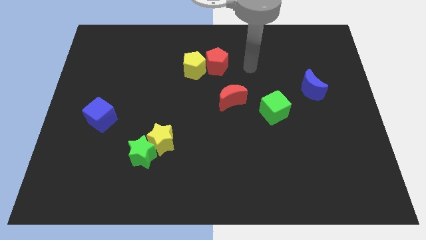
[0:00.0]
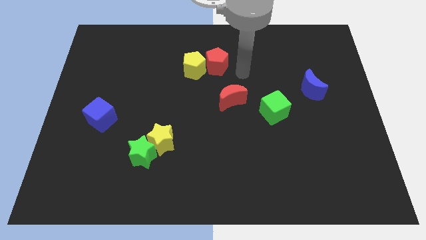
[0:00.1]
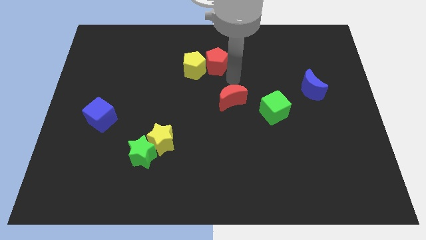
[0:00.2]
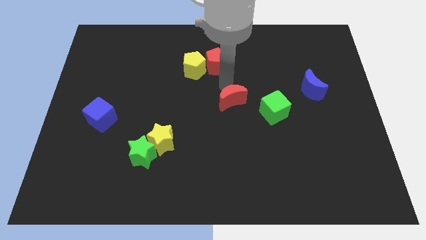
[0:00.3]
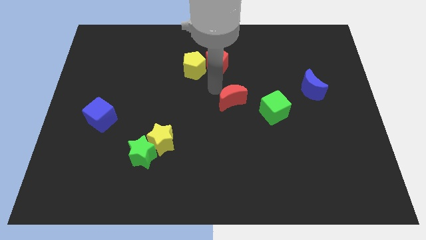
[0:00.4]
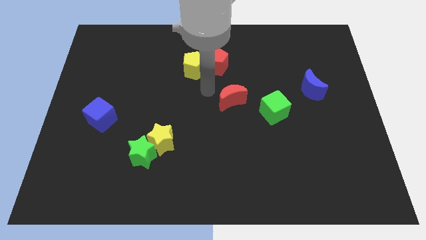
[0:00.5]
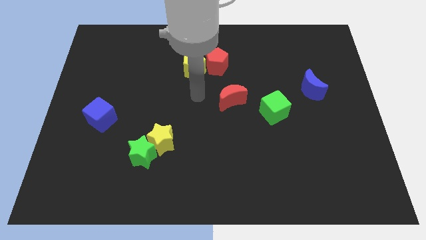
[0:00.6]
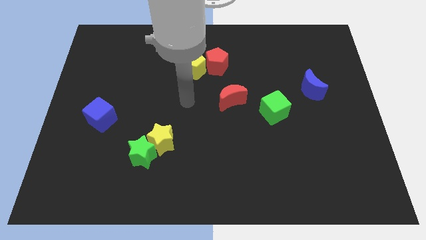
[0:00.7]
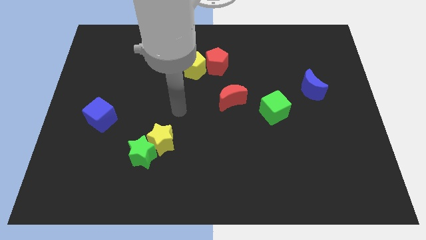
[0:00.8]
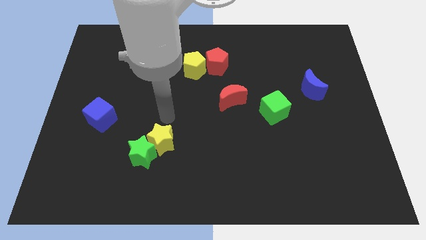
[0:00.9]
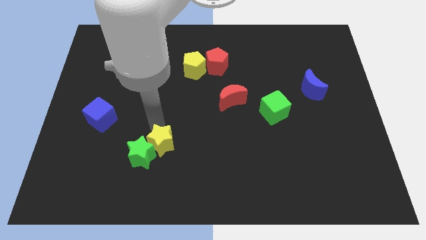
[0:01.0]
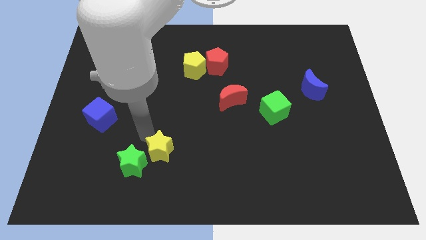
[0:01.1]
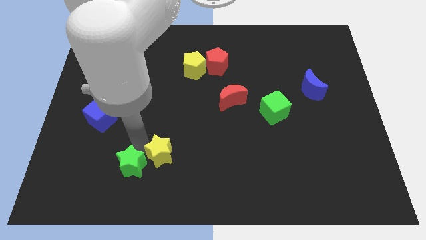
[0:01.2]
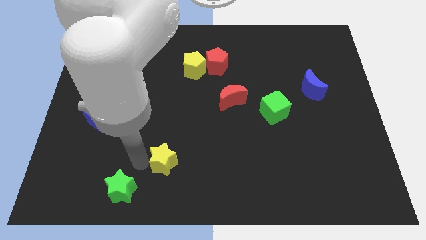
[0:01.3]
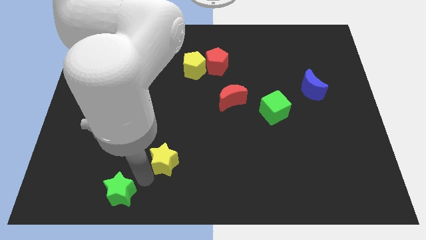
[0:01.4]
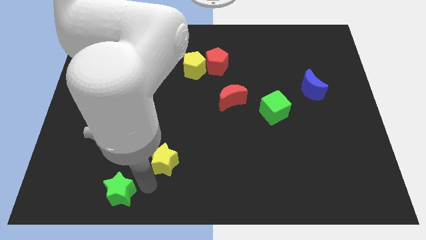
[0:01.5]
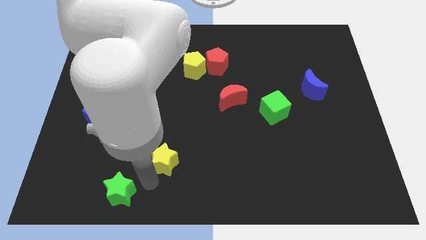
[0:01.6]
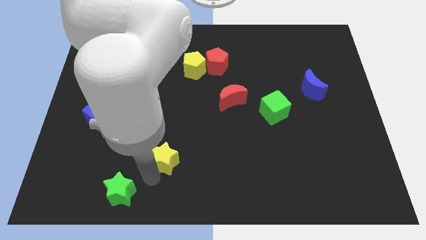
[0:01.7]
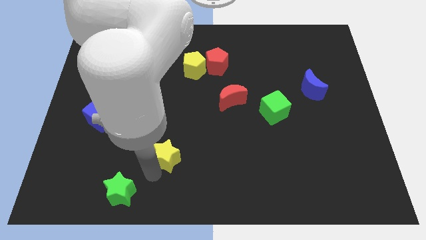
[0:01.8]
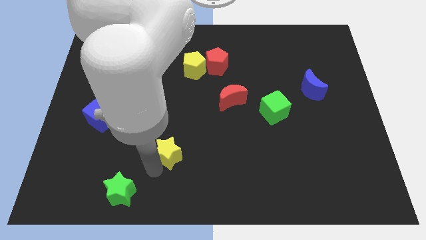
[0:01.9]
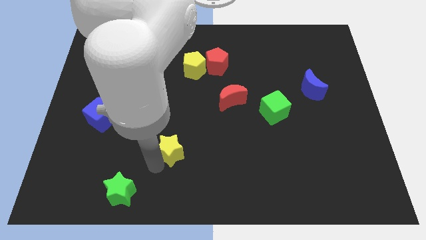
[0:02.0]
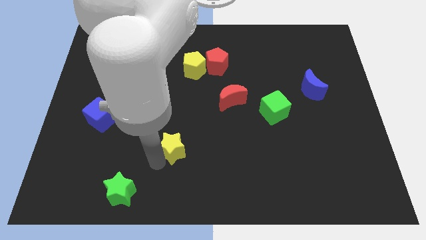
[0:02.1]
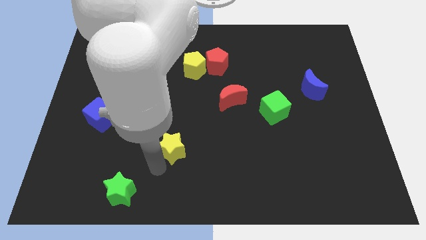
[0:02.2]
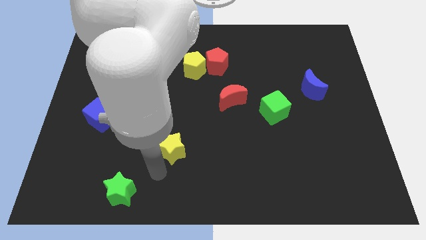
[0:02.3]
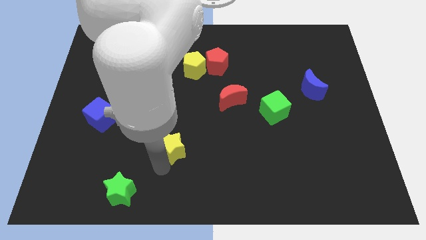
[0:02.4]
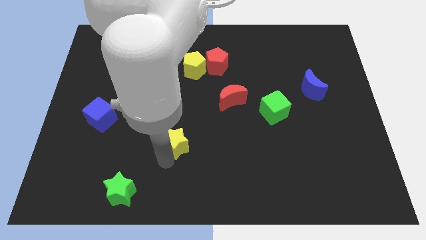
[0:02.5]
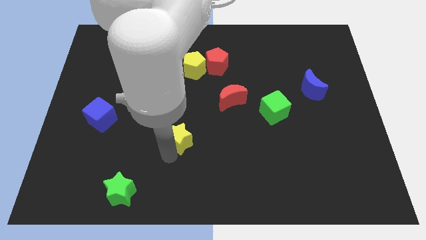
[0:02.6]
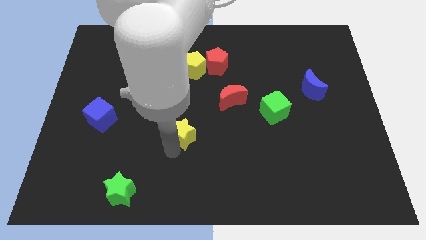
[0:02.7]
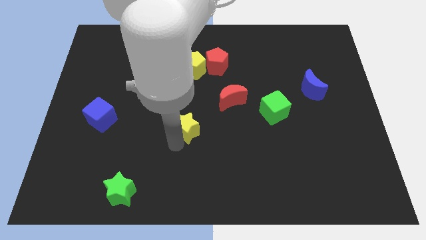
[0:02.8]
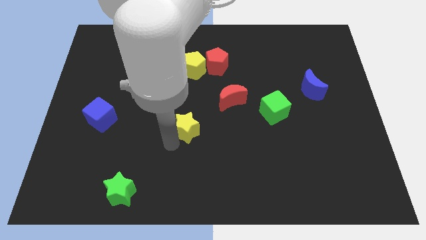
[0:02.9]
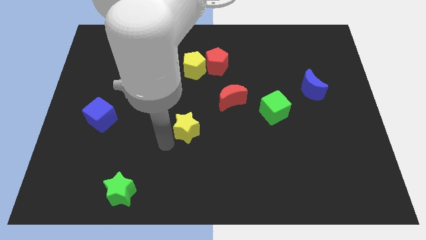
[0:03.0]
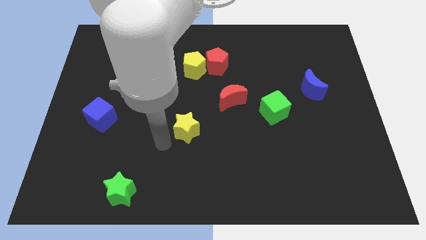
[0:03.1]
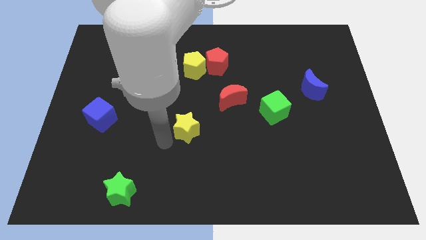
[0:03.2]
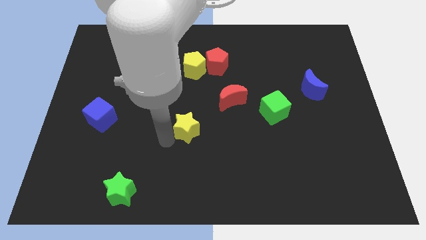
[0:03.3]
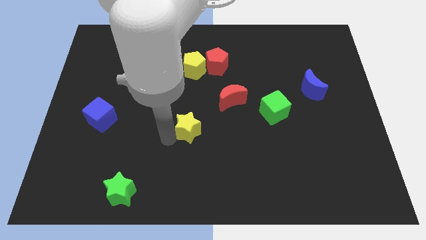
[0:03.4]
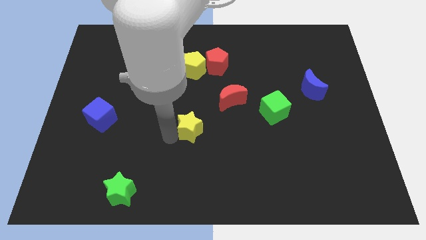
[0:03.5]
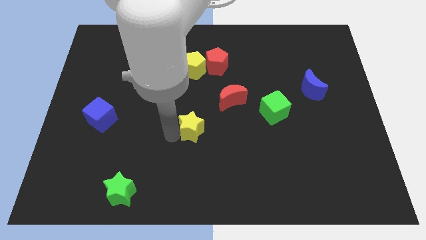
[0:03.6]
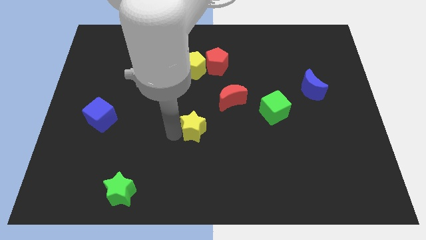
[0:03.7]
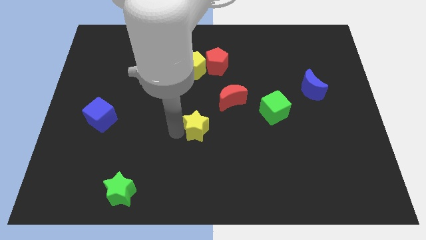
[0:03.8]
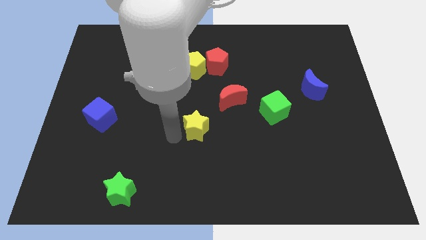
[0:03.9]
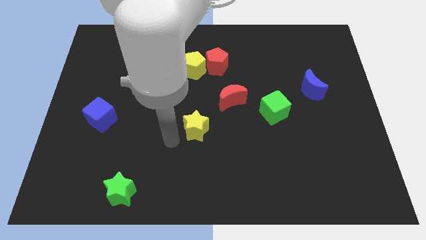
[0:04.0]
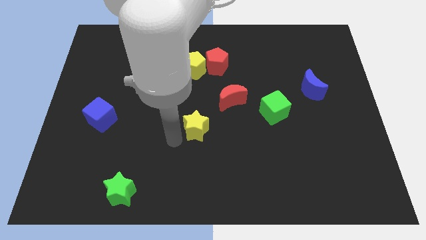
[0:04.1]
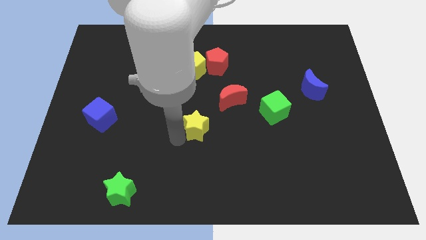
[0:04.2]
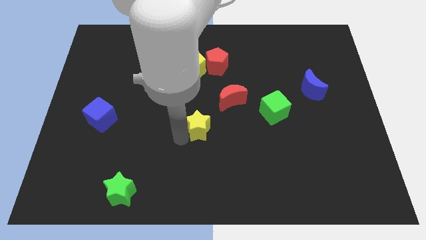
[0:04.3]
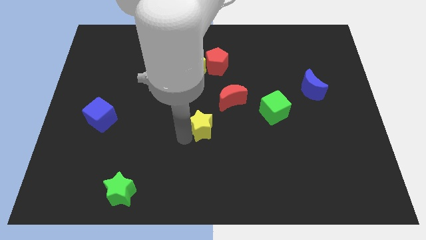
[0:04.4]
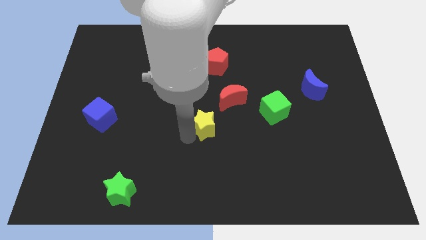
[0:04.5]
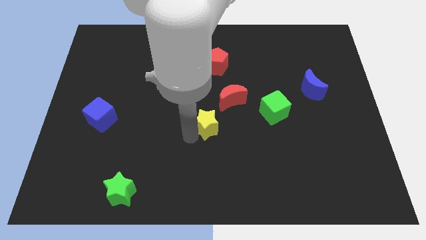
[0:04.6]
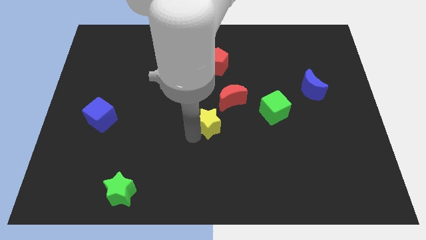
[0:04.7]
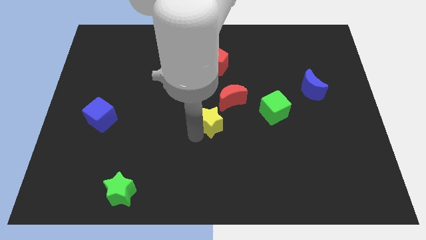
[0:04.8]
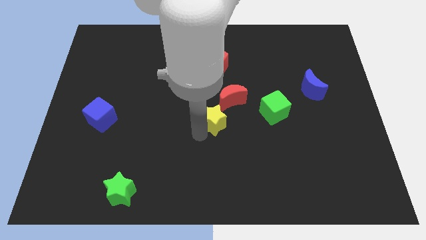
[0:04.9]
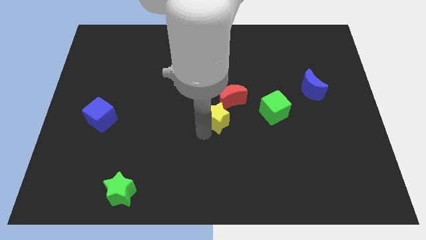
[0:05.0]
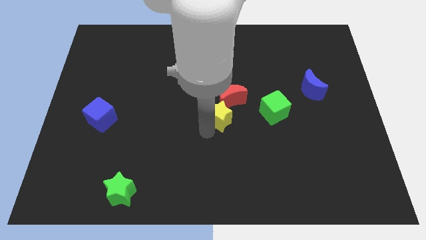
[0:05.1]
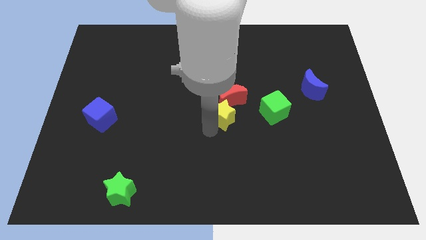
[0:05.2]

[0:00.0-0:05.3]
push the yellow star close to the red moon

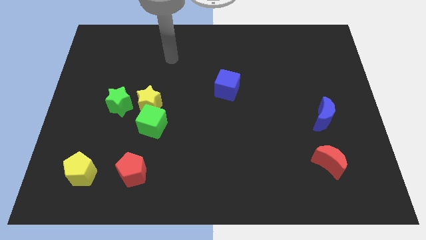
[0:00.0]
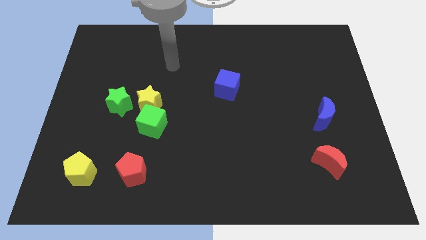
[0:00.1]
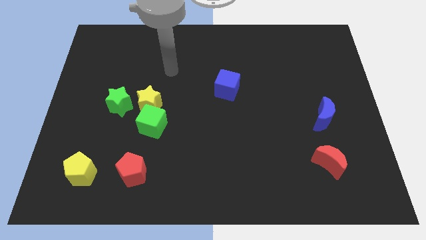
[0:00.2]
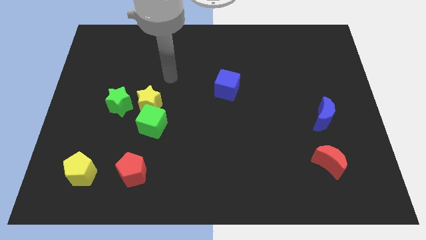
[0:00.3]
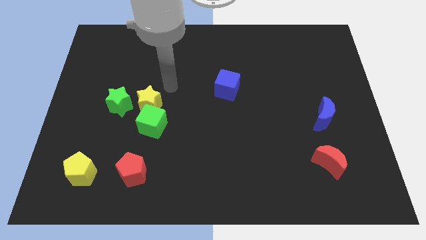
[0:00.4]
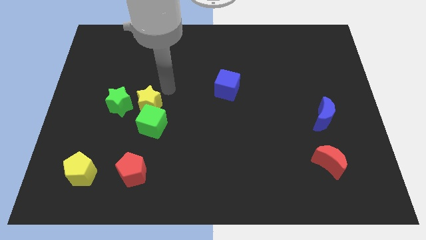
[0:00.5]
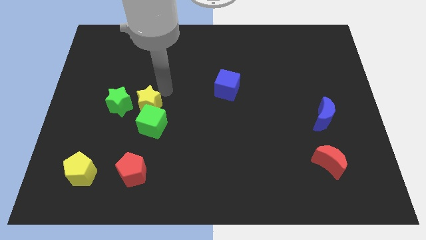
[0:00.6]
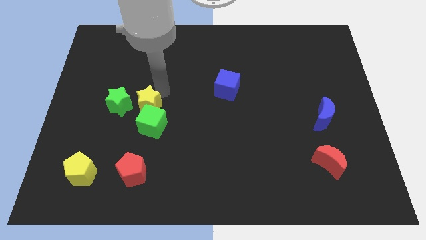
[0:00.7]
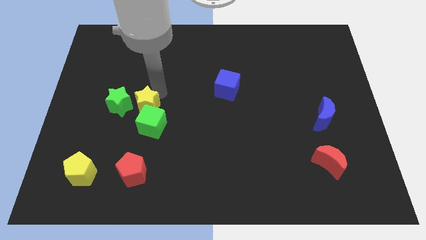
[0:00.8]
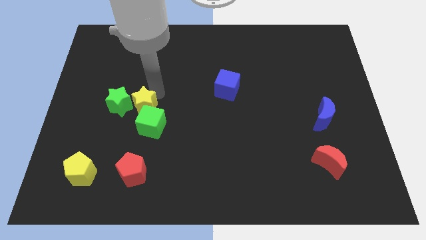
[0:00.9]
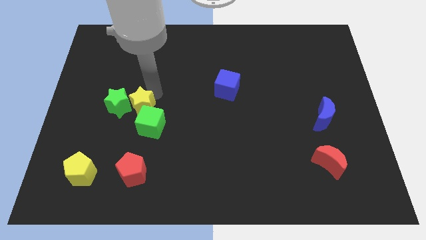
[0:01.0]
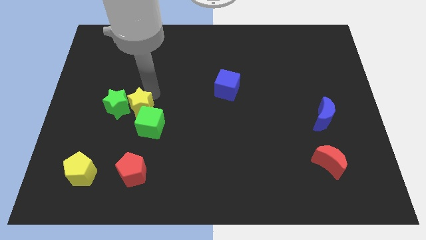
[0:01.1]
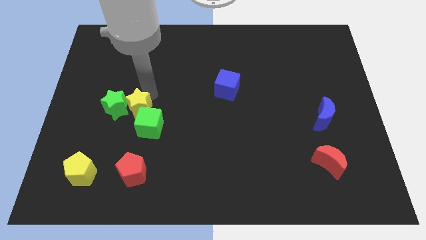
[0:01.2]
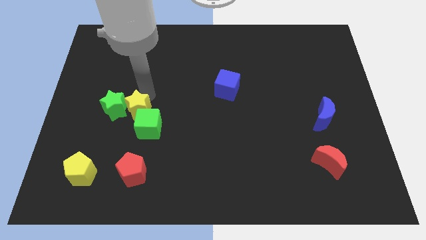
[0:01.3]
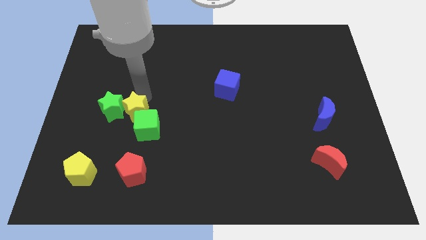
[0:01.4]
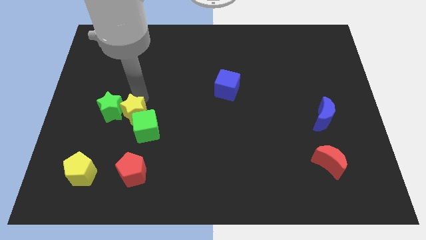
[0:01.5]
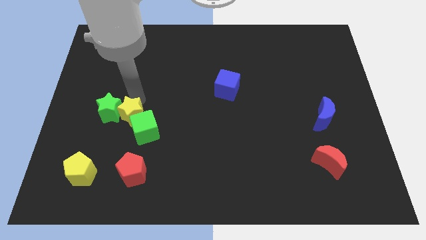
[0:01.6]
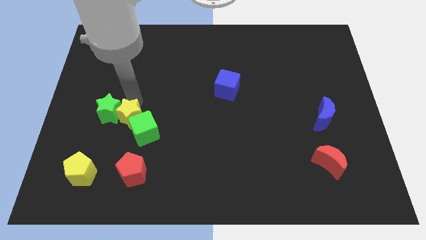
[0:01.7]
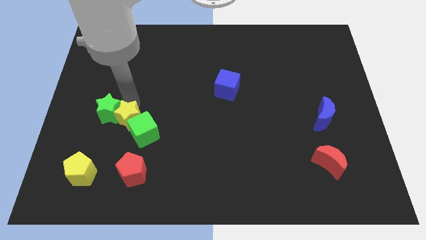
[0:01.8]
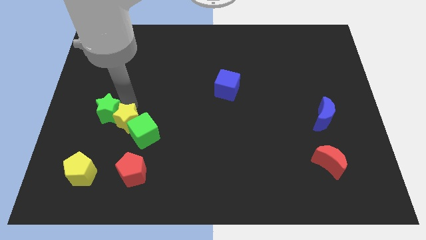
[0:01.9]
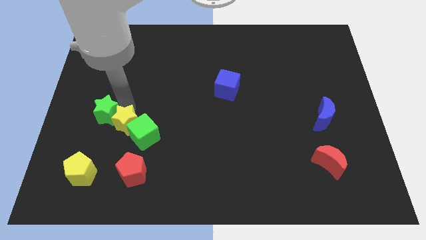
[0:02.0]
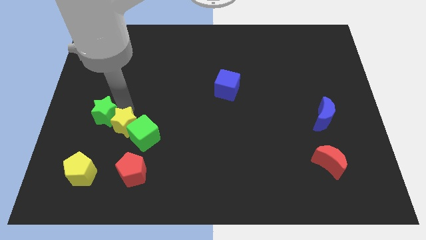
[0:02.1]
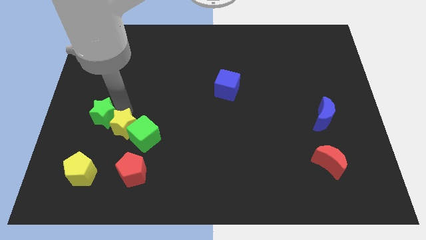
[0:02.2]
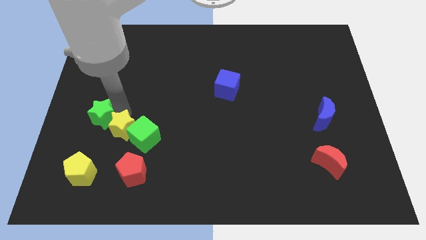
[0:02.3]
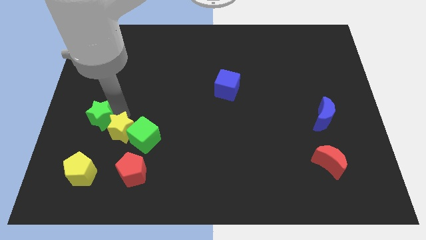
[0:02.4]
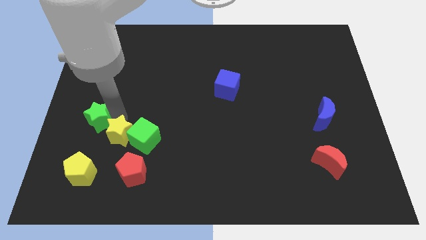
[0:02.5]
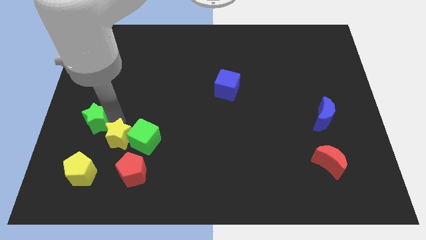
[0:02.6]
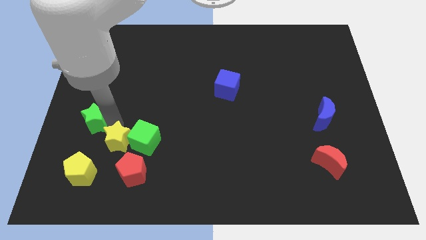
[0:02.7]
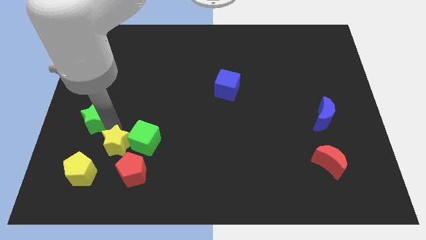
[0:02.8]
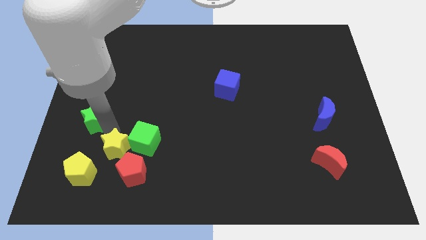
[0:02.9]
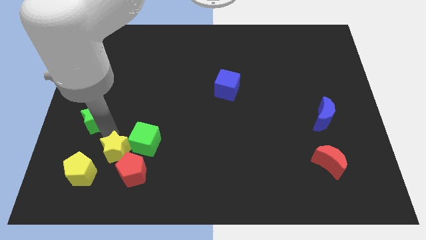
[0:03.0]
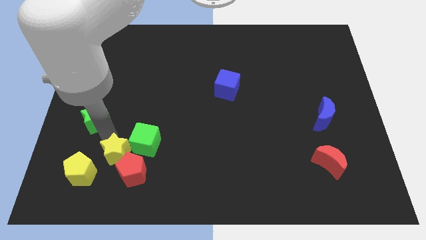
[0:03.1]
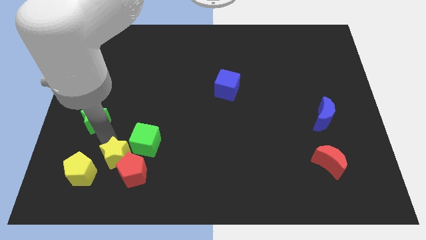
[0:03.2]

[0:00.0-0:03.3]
move the yellow star next to the red pentagon
